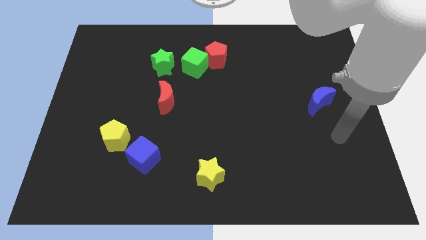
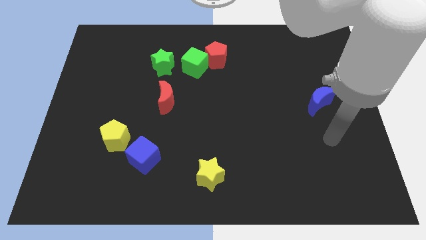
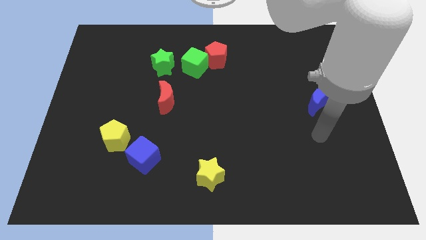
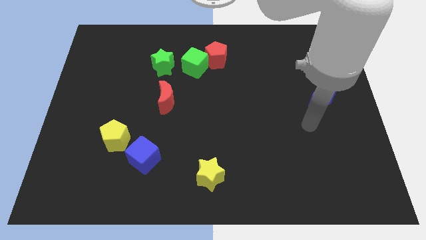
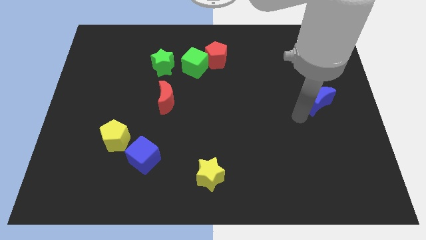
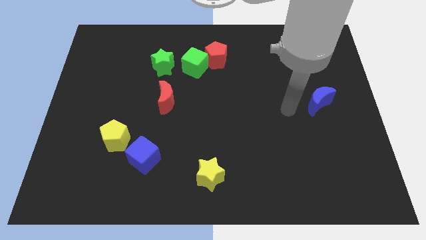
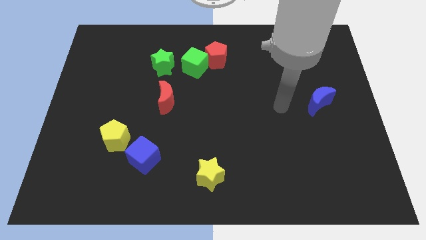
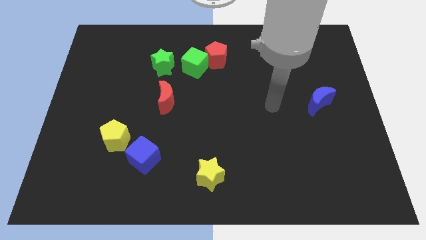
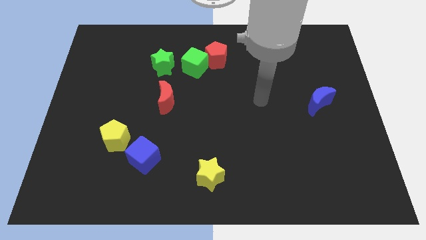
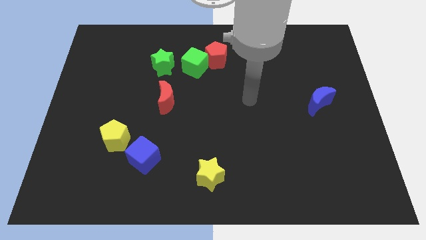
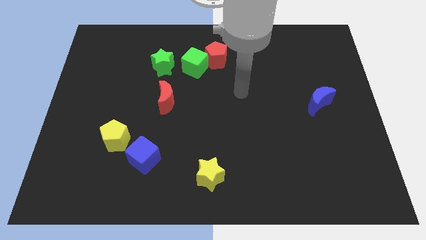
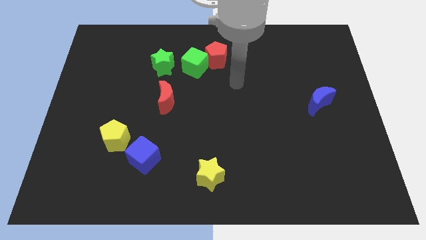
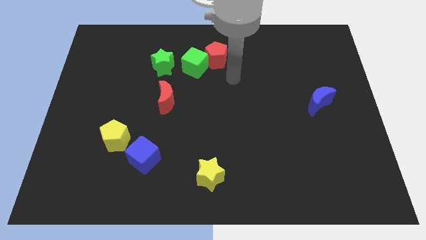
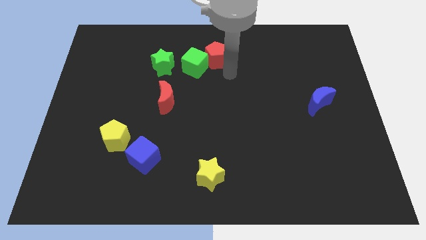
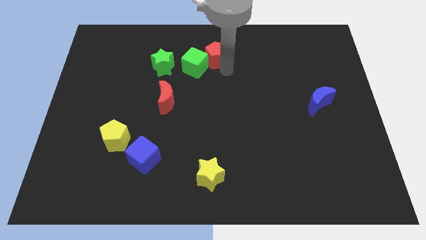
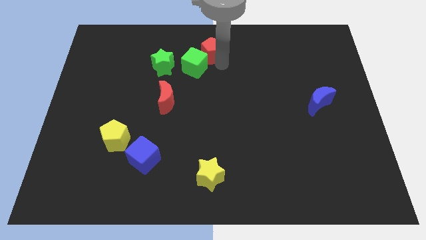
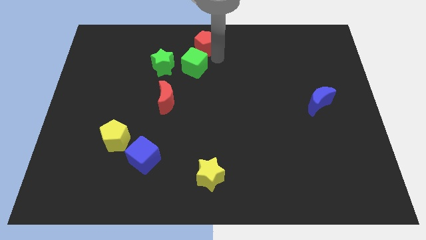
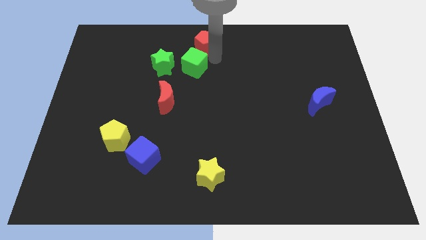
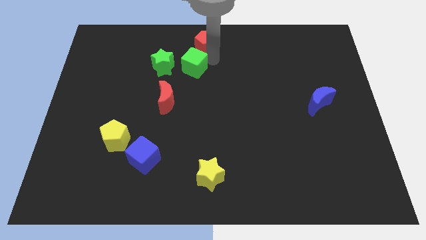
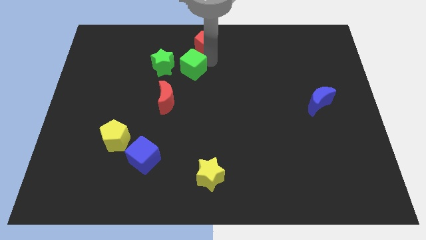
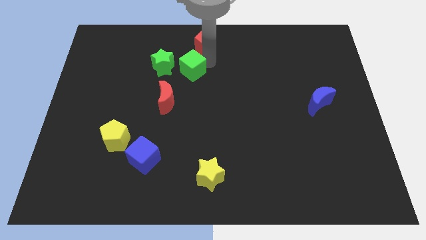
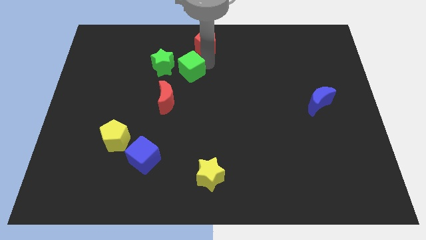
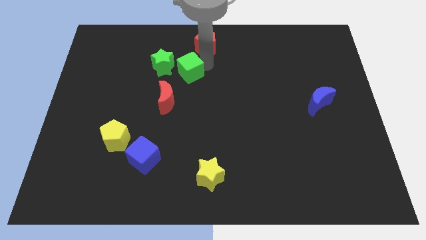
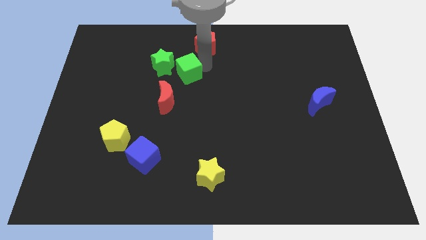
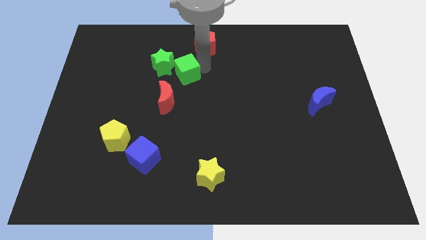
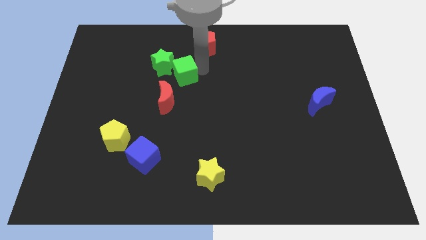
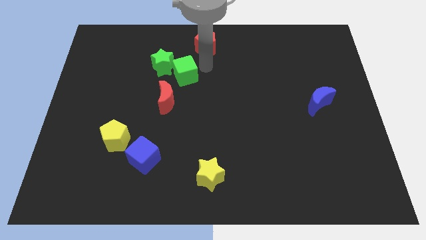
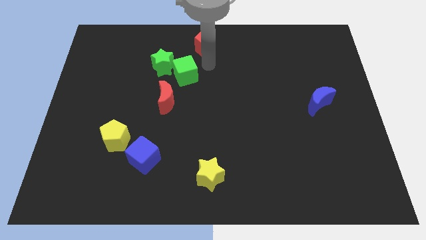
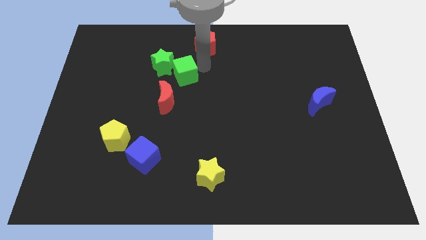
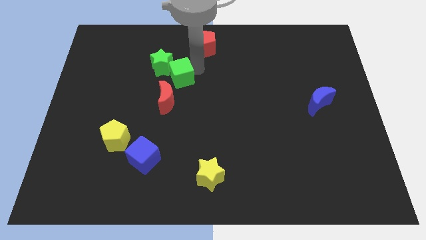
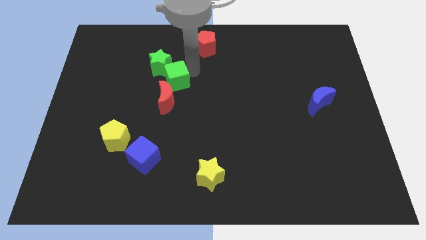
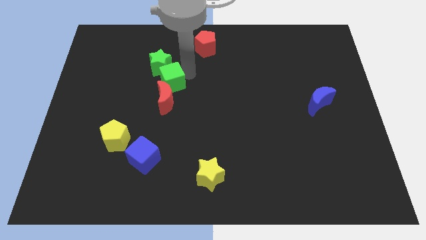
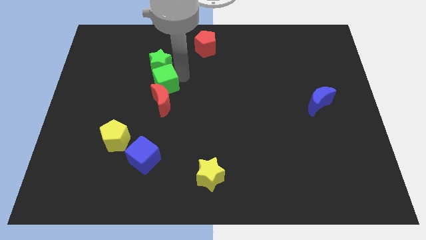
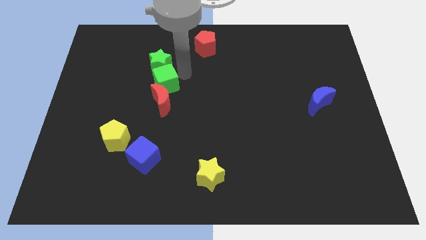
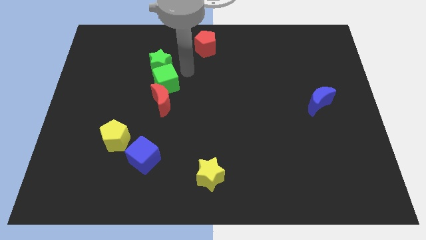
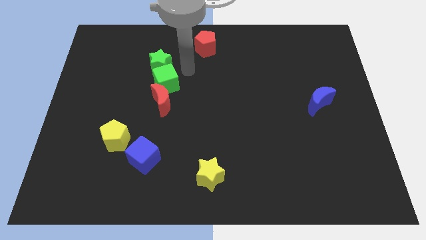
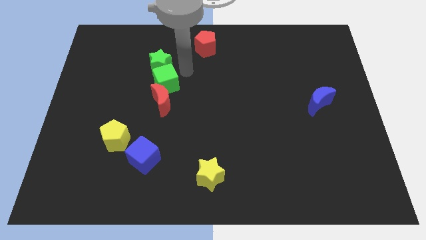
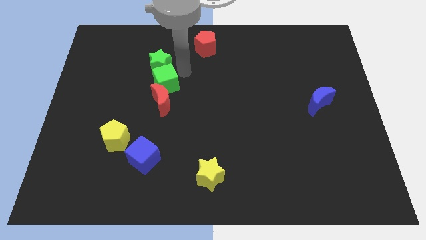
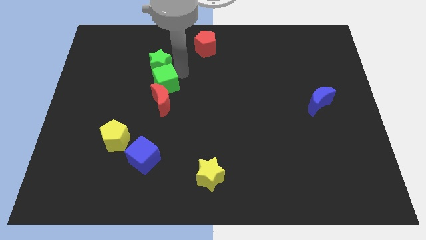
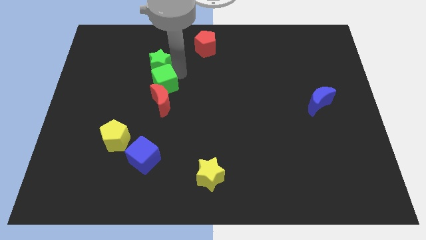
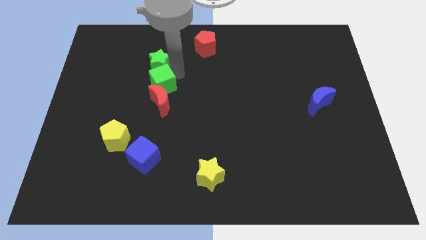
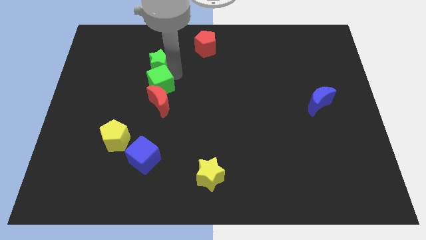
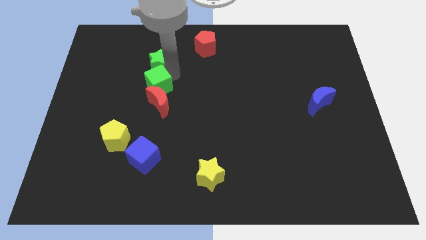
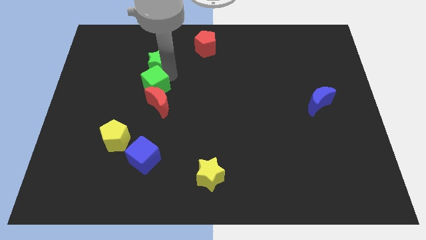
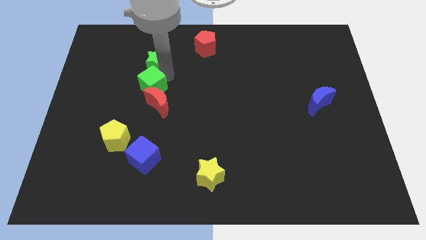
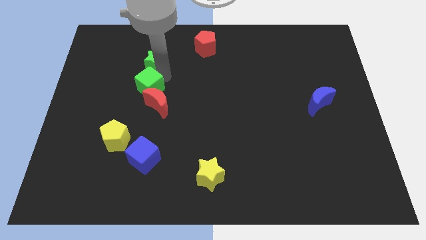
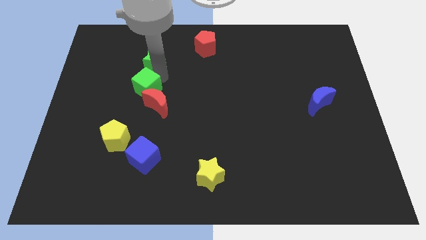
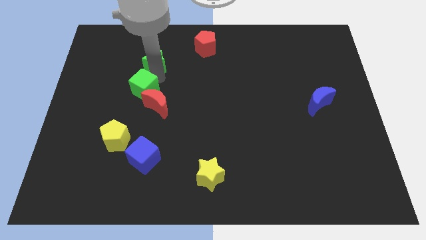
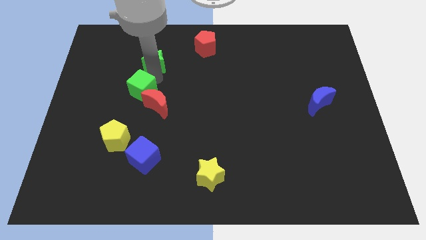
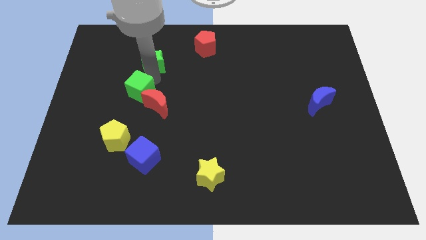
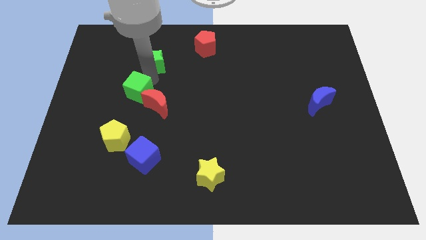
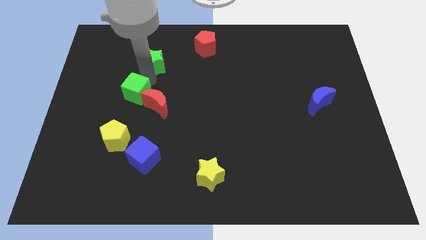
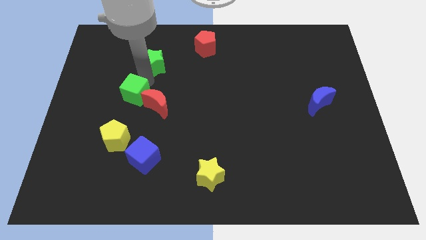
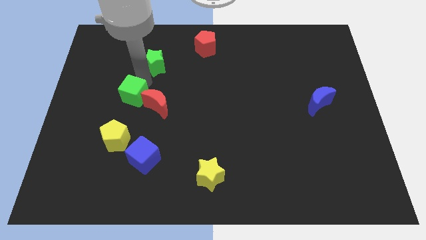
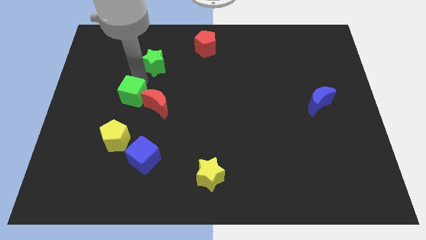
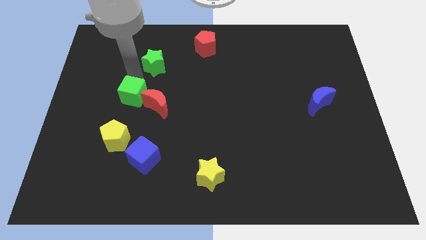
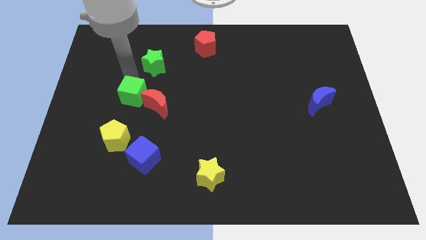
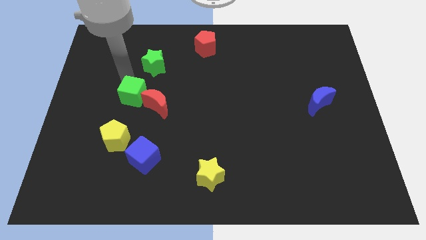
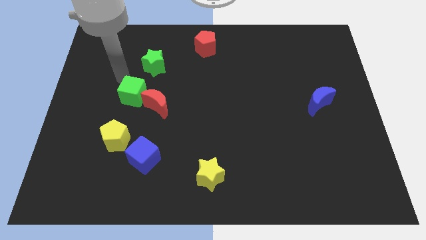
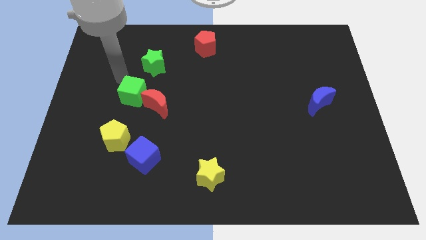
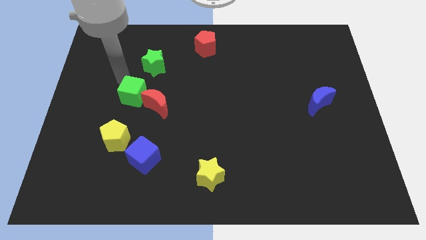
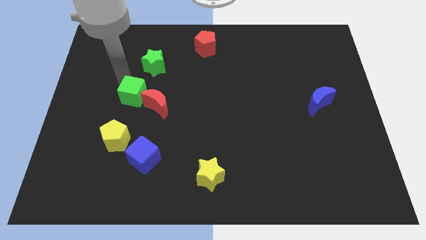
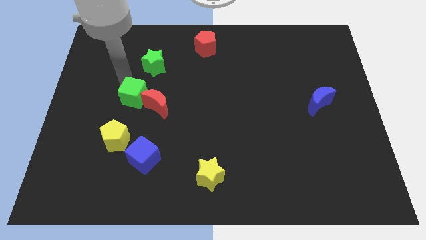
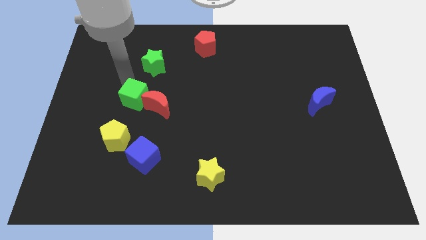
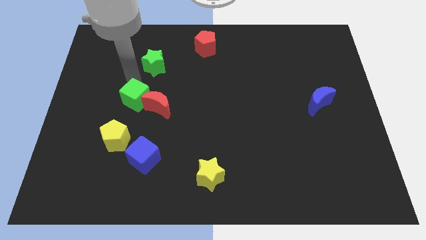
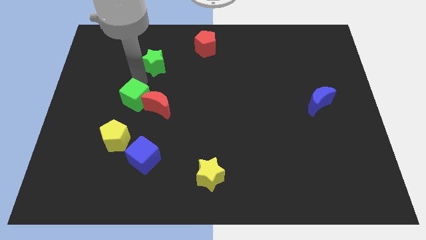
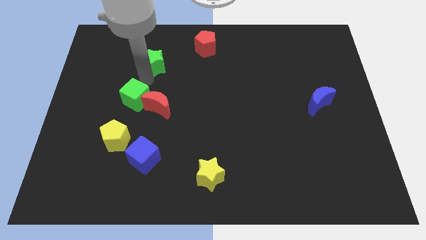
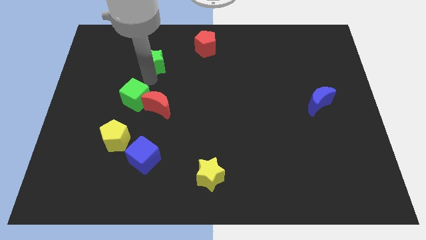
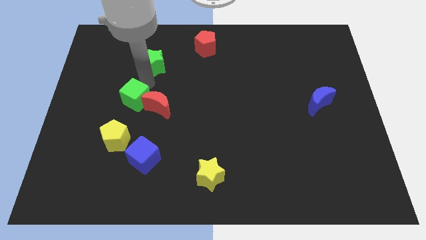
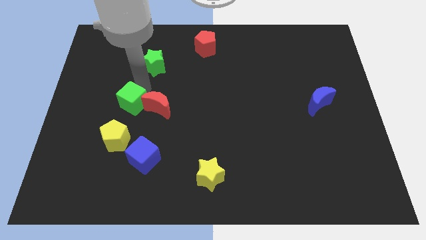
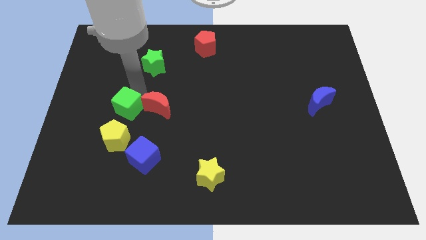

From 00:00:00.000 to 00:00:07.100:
slide the green cube downwards and left diagonally

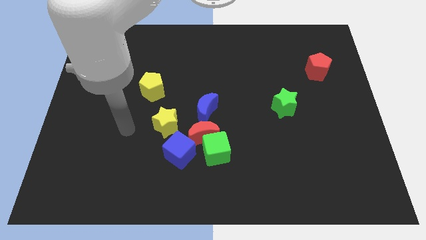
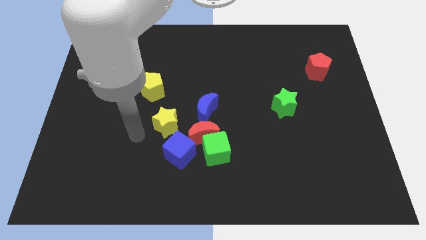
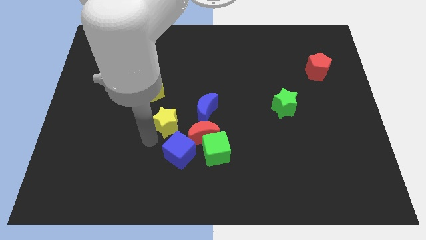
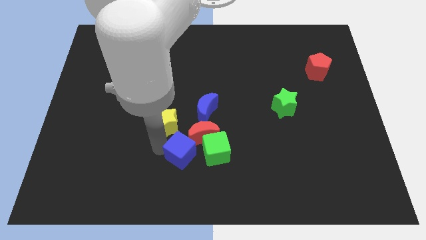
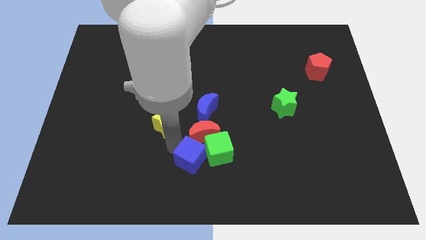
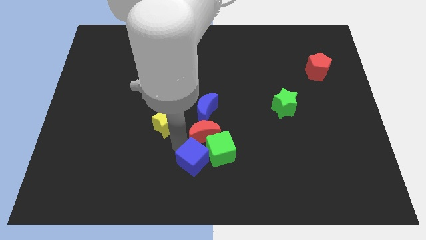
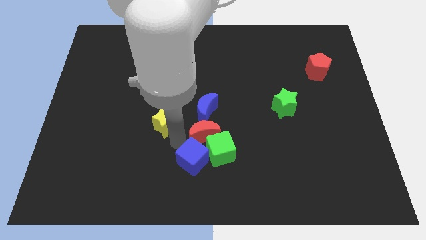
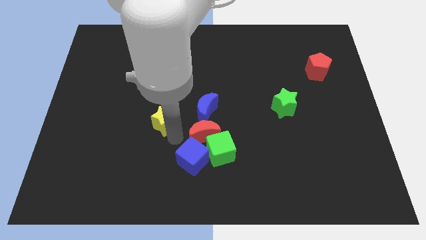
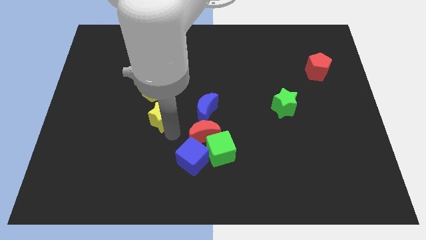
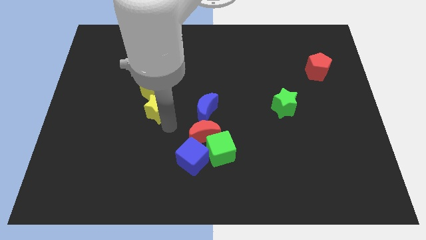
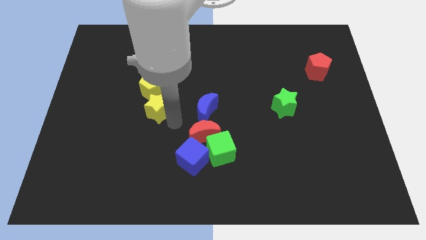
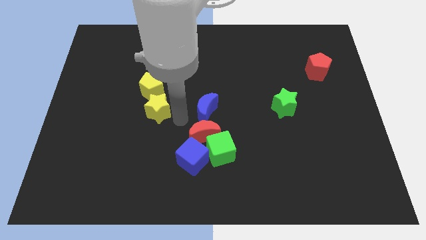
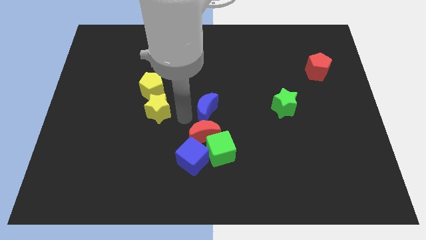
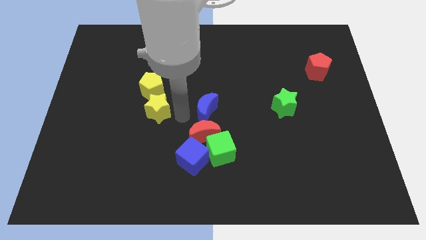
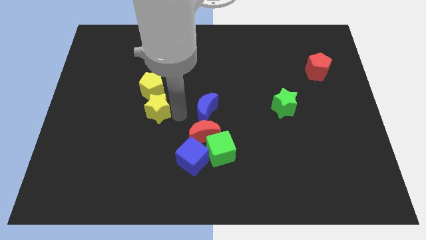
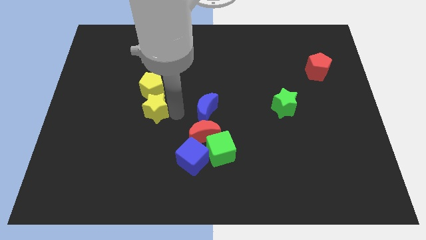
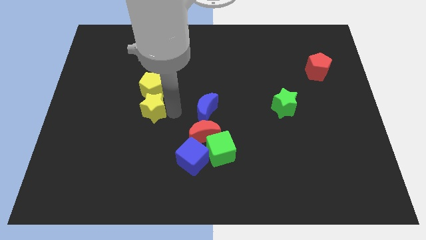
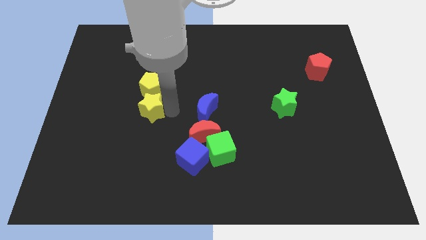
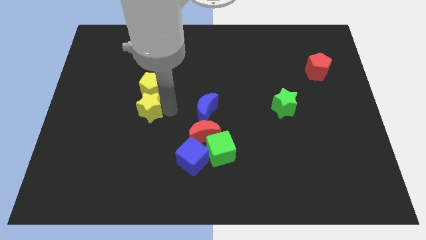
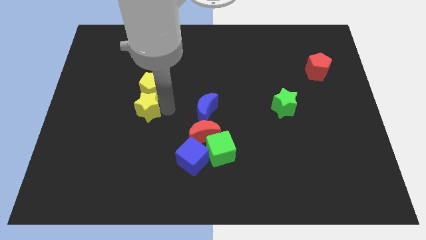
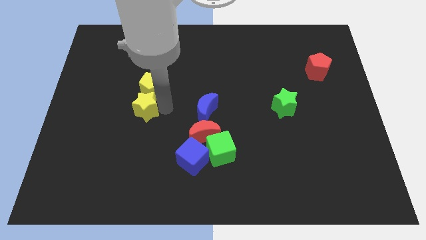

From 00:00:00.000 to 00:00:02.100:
push the yellow star a little bit diagonally up and to the left
